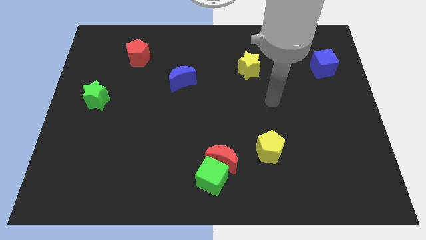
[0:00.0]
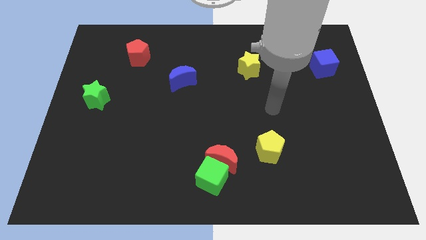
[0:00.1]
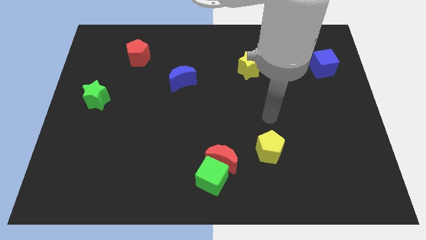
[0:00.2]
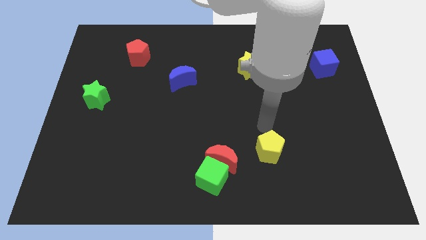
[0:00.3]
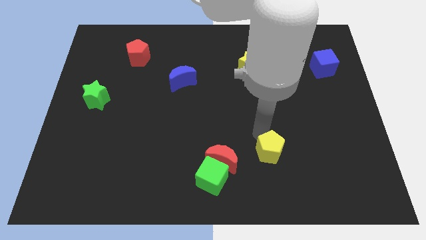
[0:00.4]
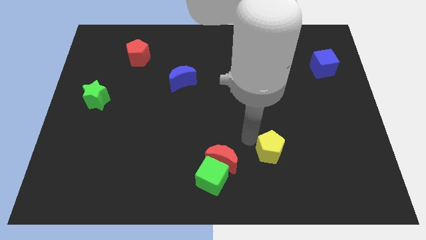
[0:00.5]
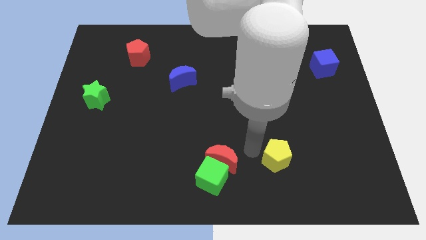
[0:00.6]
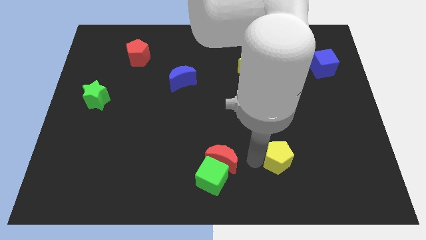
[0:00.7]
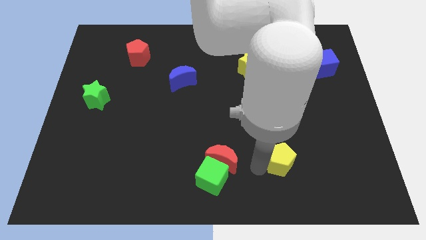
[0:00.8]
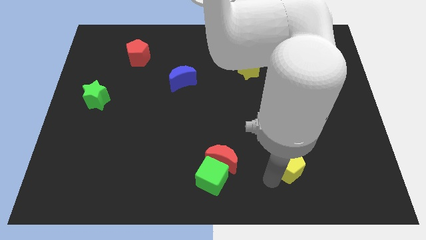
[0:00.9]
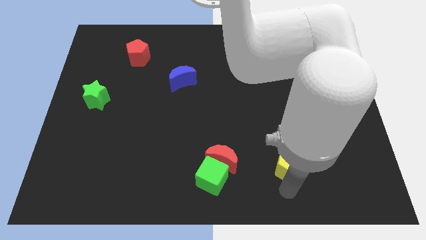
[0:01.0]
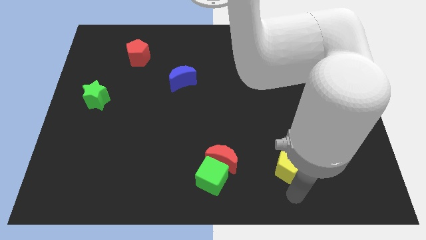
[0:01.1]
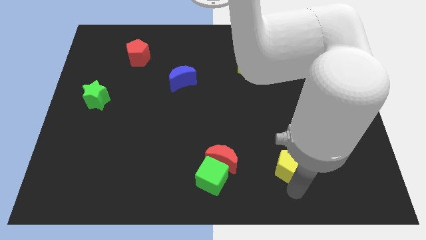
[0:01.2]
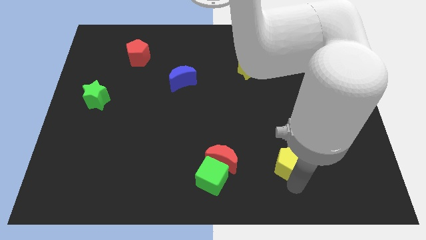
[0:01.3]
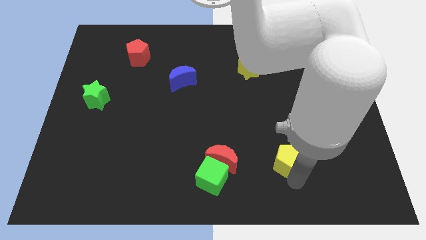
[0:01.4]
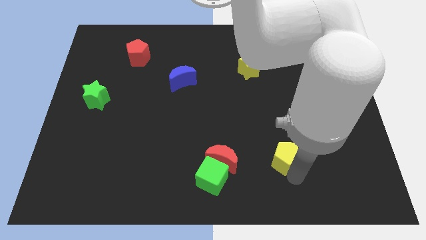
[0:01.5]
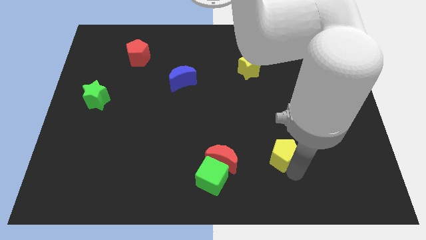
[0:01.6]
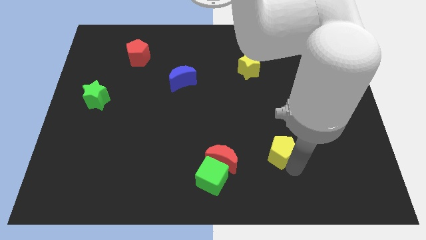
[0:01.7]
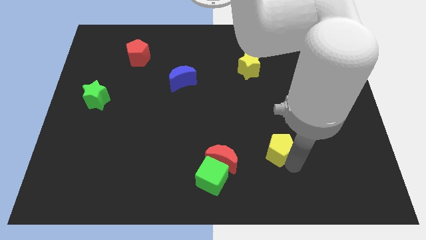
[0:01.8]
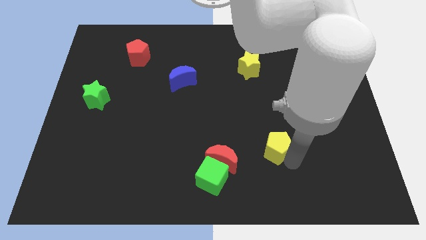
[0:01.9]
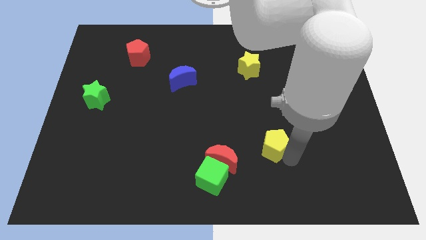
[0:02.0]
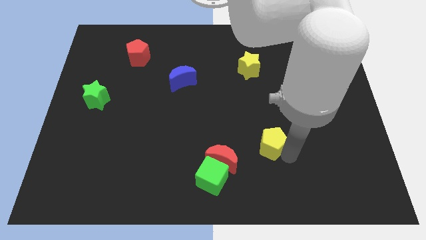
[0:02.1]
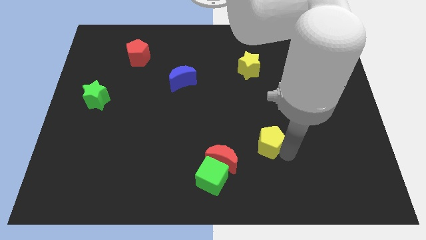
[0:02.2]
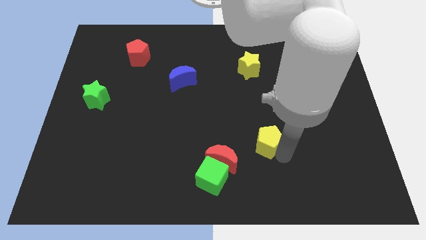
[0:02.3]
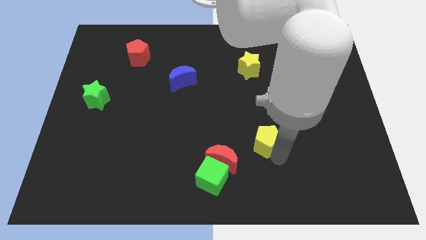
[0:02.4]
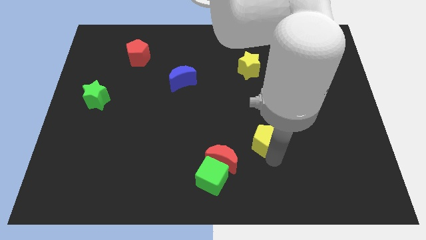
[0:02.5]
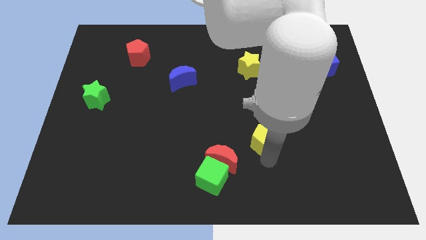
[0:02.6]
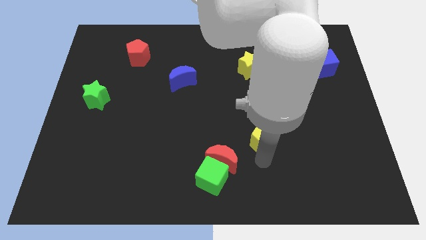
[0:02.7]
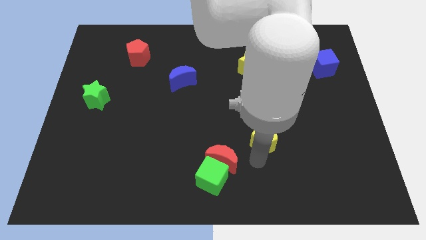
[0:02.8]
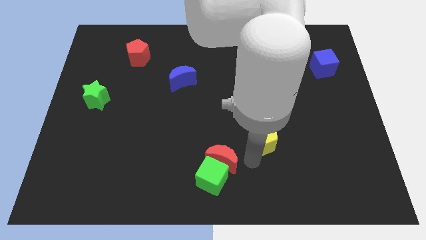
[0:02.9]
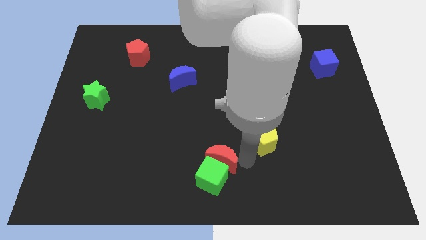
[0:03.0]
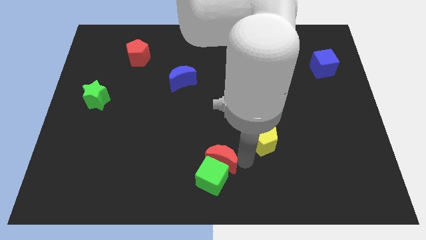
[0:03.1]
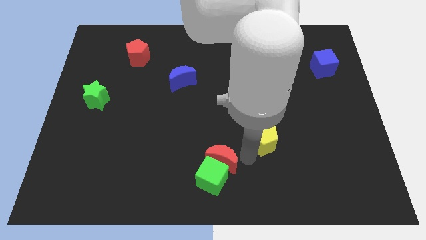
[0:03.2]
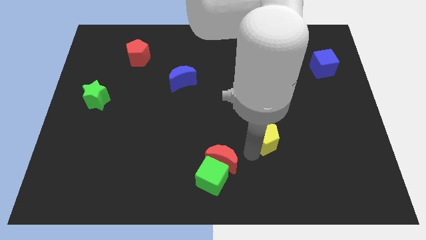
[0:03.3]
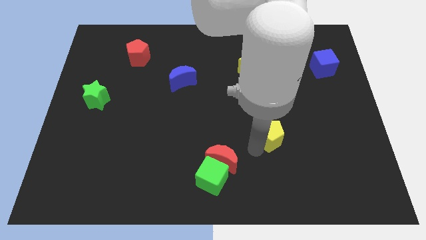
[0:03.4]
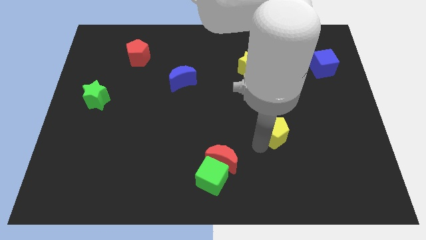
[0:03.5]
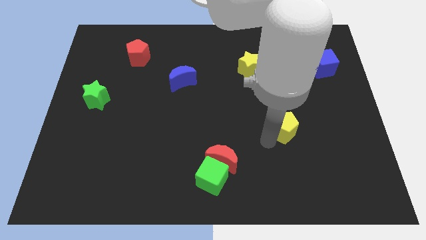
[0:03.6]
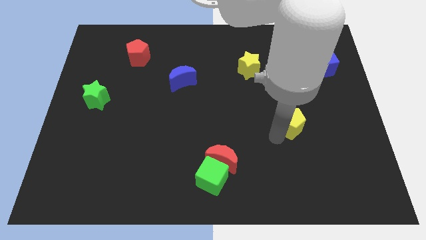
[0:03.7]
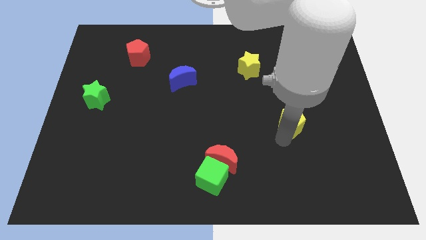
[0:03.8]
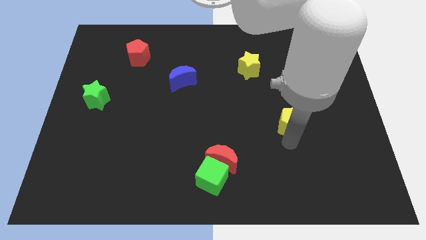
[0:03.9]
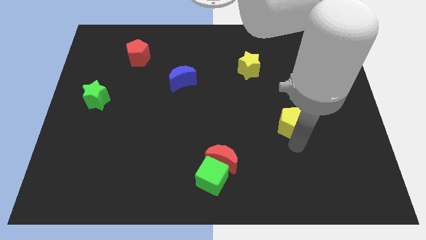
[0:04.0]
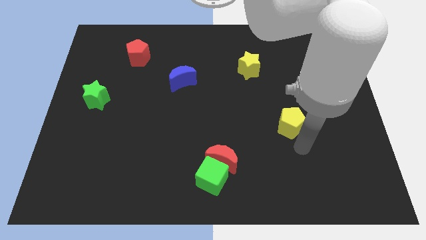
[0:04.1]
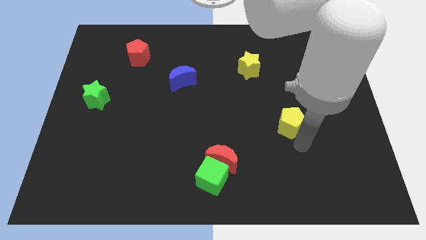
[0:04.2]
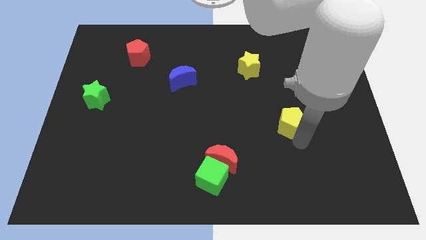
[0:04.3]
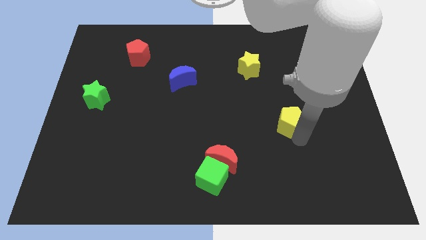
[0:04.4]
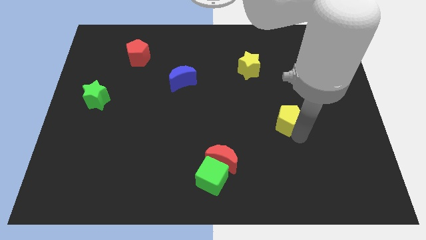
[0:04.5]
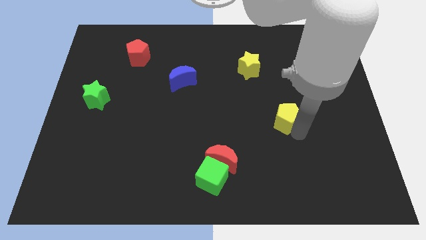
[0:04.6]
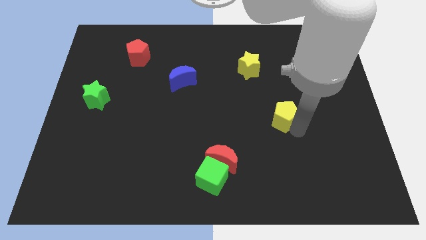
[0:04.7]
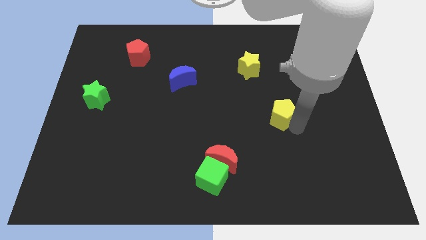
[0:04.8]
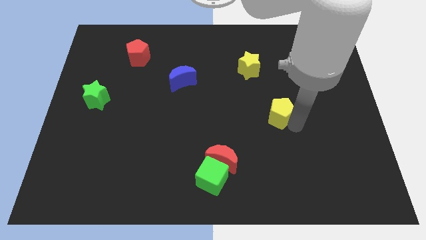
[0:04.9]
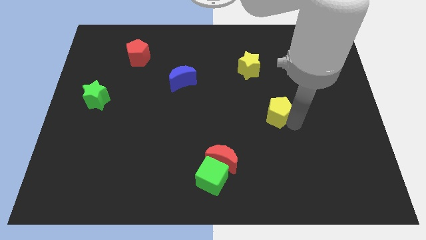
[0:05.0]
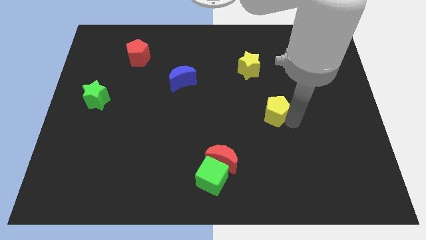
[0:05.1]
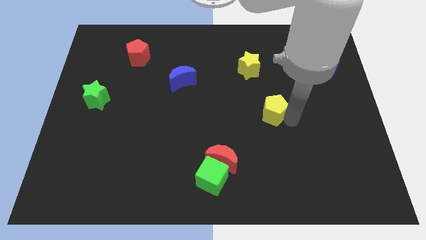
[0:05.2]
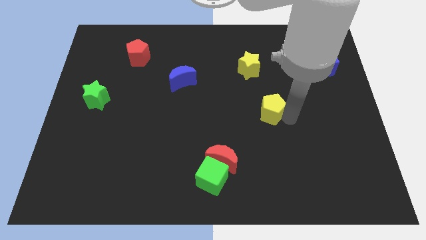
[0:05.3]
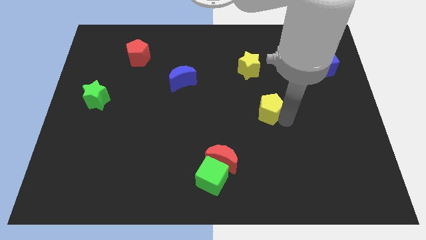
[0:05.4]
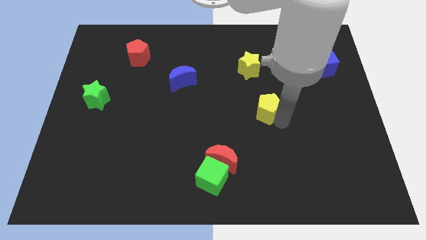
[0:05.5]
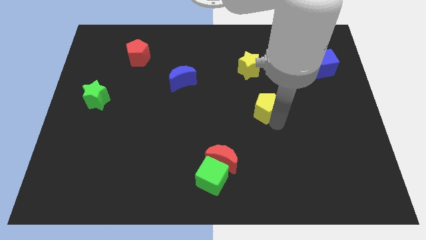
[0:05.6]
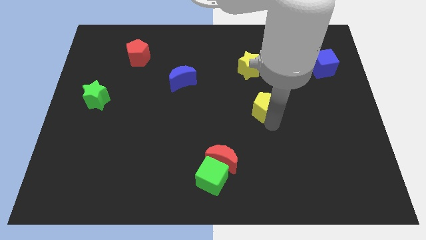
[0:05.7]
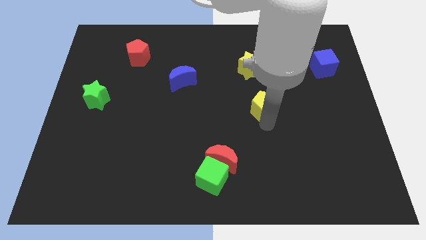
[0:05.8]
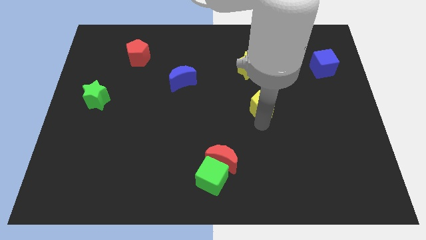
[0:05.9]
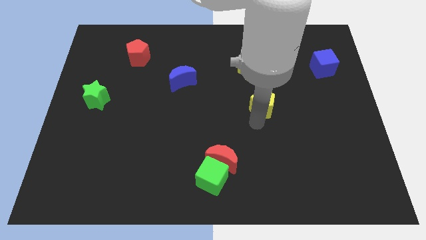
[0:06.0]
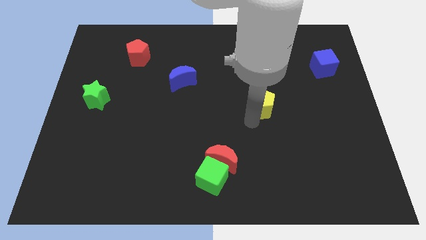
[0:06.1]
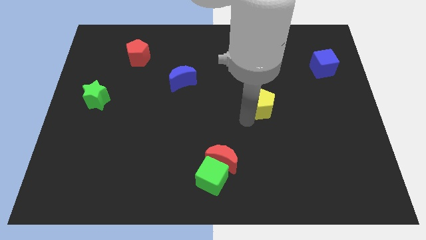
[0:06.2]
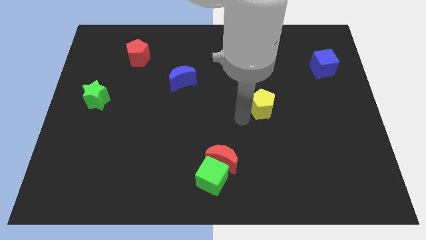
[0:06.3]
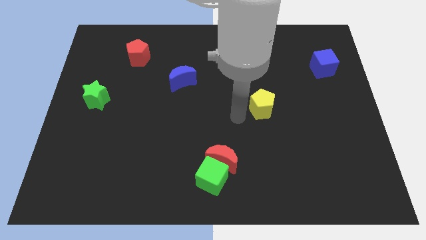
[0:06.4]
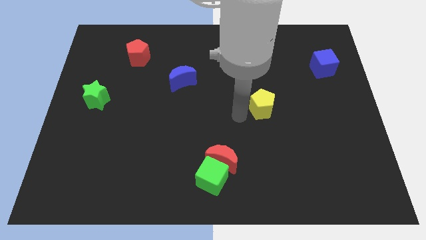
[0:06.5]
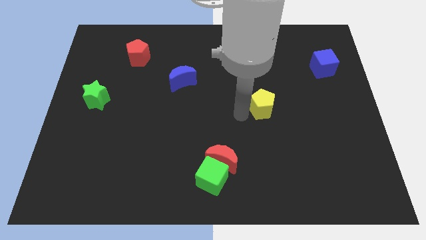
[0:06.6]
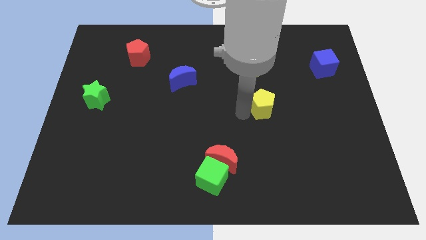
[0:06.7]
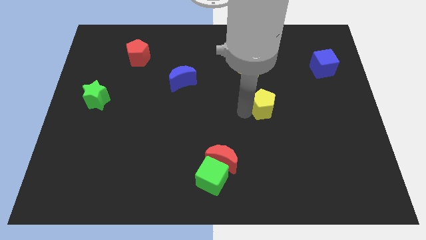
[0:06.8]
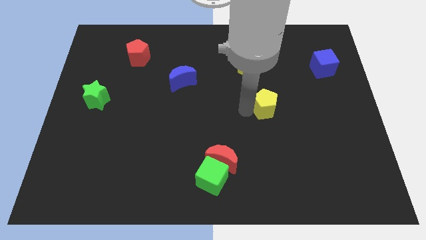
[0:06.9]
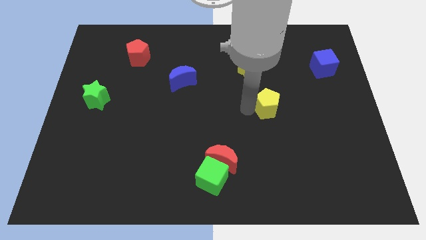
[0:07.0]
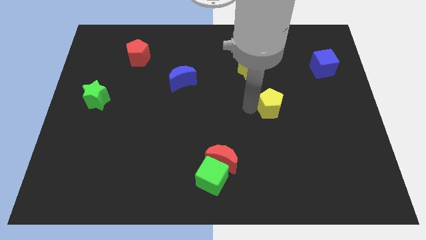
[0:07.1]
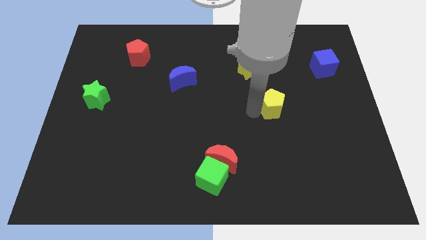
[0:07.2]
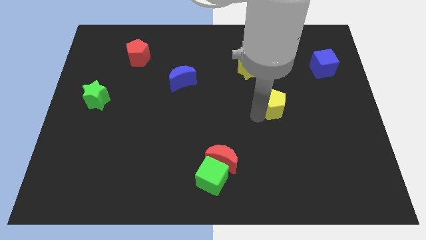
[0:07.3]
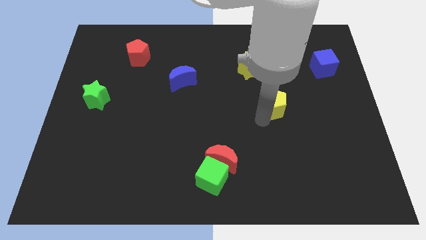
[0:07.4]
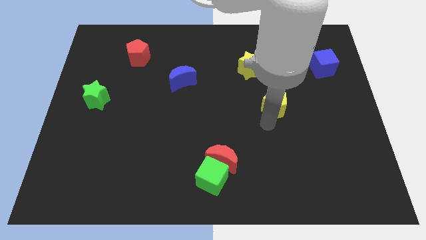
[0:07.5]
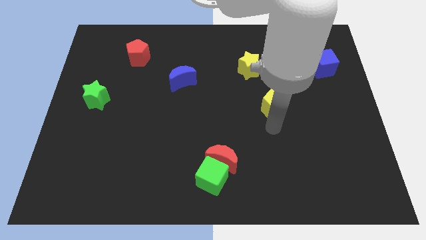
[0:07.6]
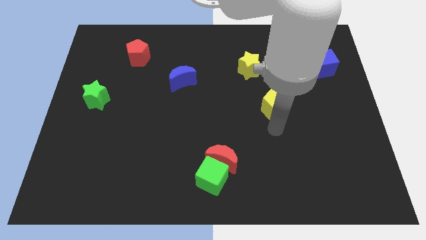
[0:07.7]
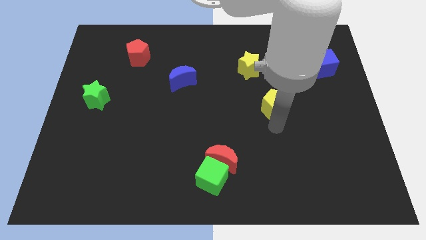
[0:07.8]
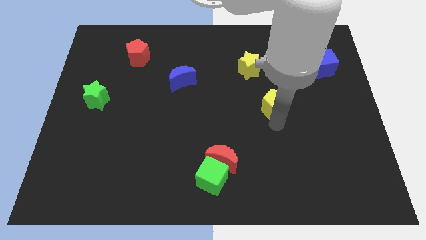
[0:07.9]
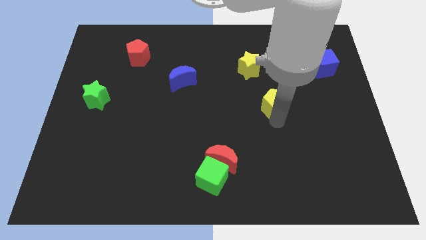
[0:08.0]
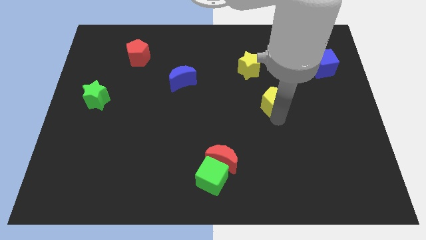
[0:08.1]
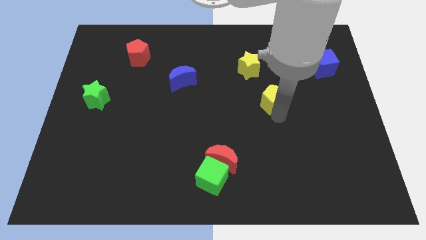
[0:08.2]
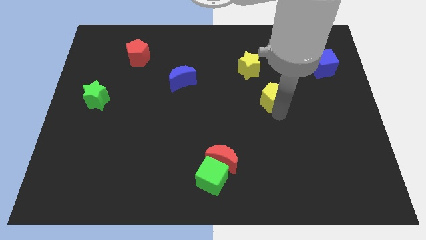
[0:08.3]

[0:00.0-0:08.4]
push the yellow pentagon to the bottom right of the yellow star
